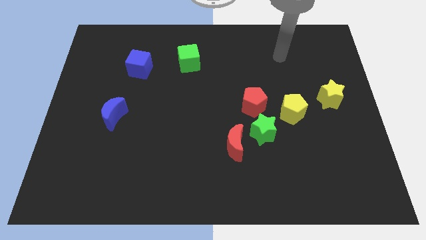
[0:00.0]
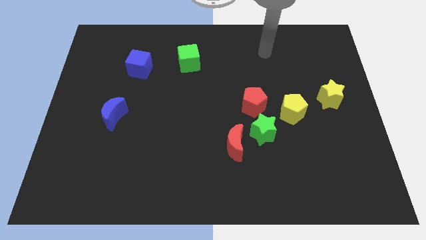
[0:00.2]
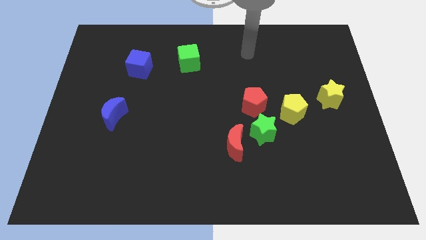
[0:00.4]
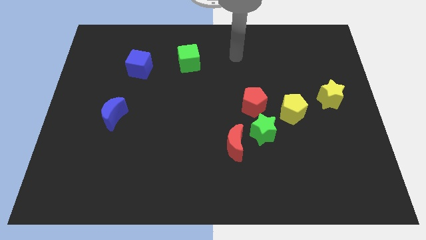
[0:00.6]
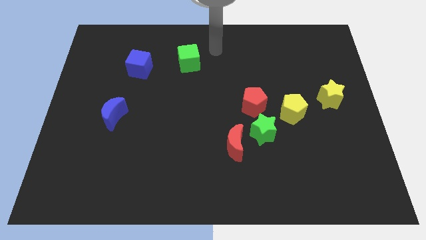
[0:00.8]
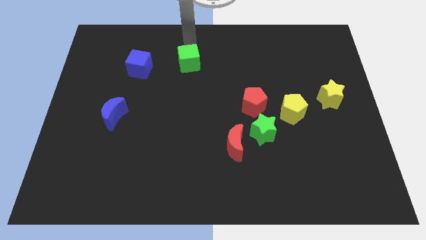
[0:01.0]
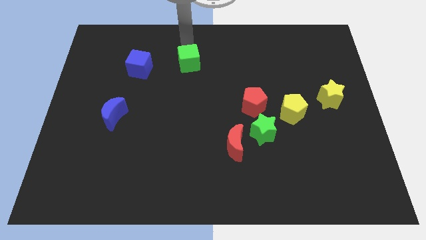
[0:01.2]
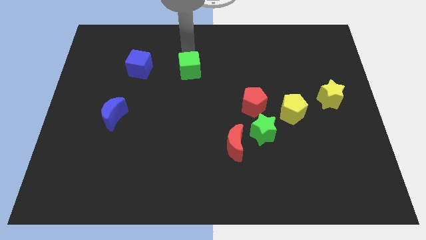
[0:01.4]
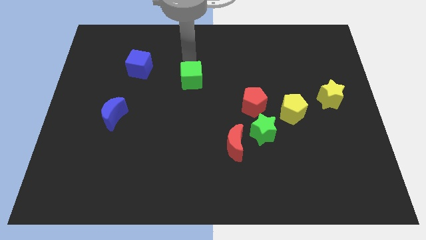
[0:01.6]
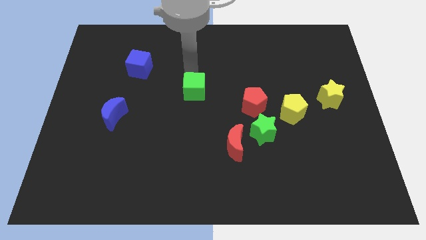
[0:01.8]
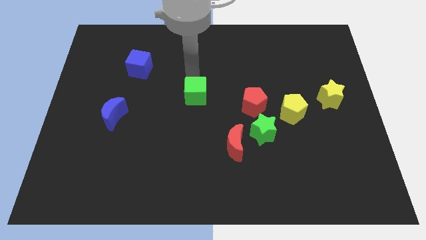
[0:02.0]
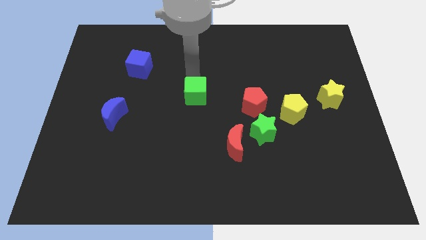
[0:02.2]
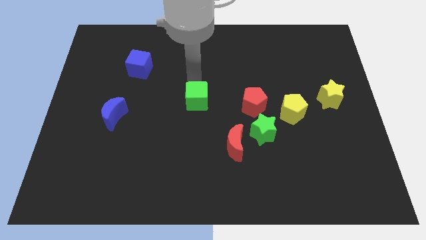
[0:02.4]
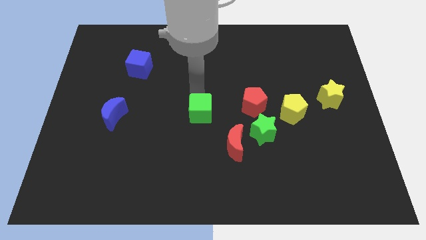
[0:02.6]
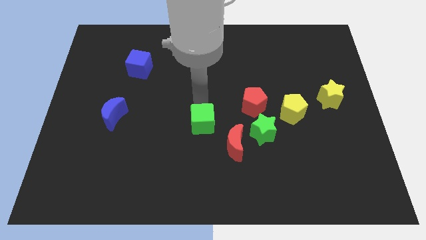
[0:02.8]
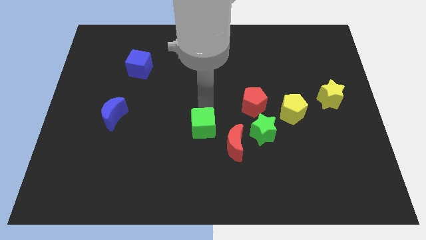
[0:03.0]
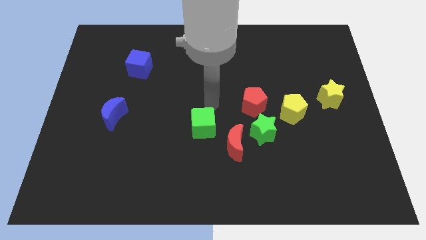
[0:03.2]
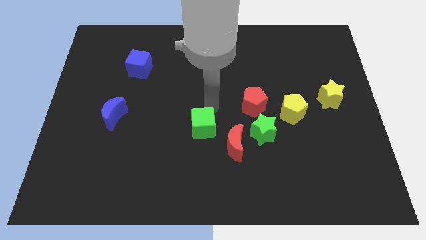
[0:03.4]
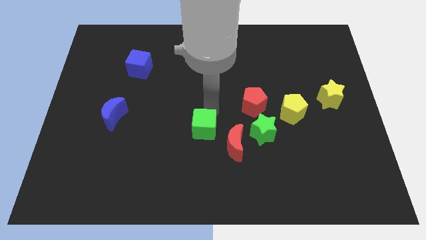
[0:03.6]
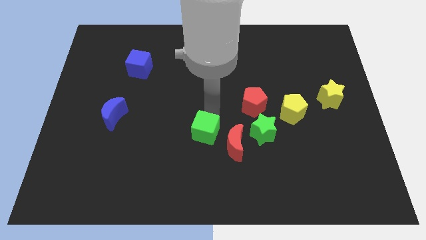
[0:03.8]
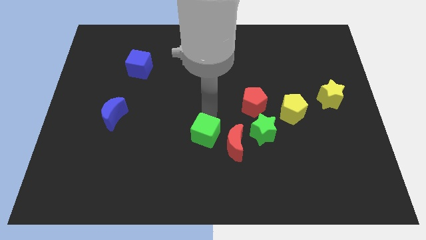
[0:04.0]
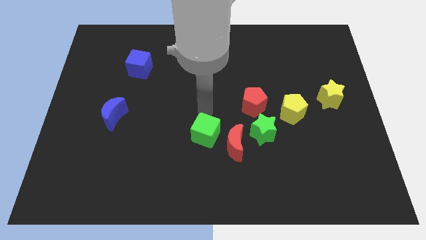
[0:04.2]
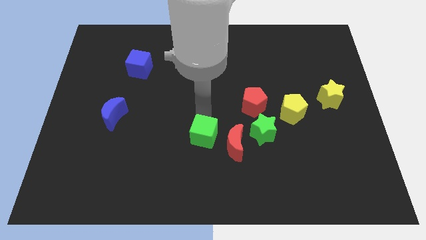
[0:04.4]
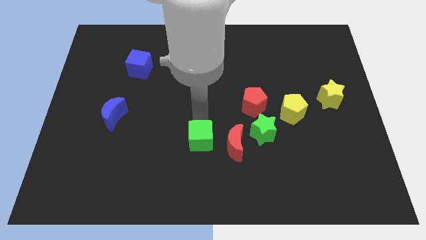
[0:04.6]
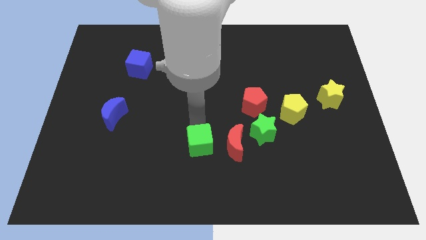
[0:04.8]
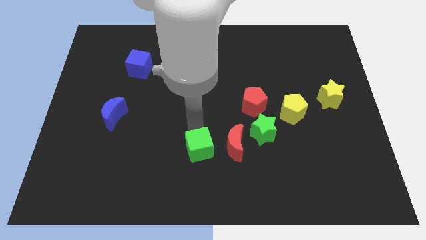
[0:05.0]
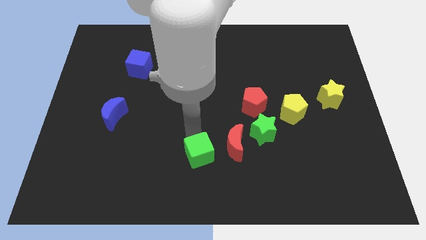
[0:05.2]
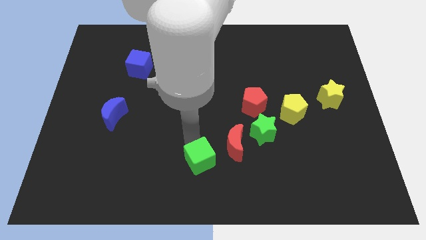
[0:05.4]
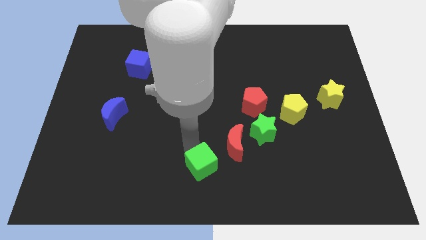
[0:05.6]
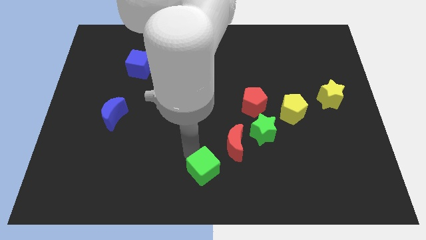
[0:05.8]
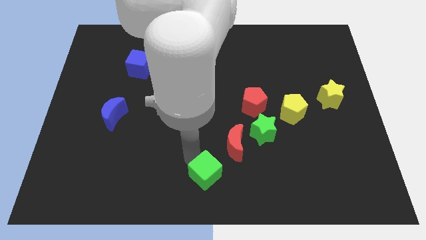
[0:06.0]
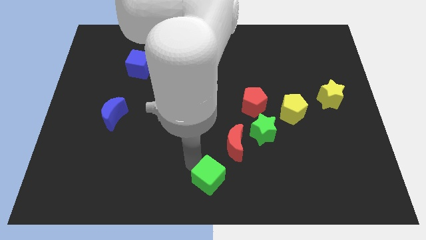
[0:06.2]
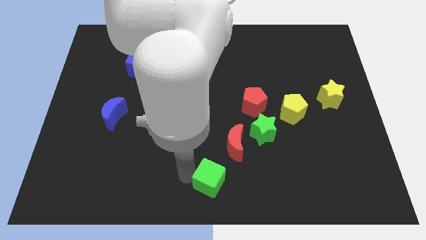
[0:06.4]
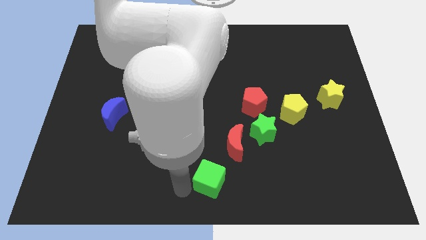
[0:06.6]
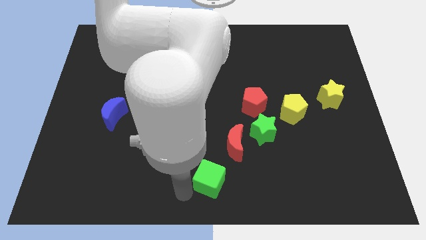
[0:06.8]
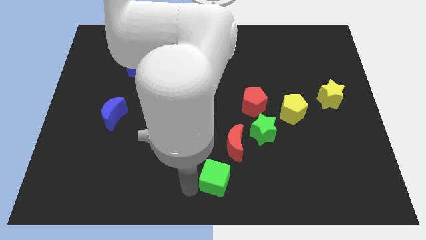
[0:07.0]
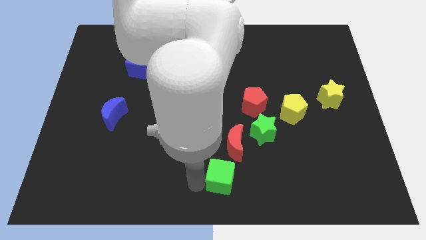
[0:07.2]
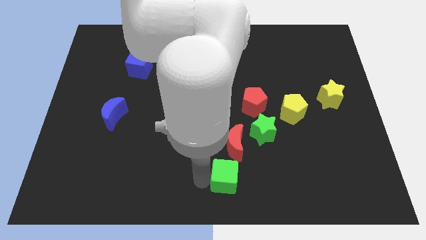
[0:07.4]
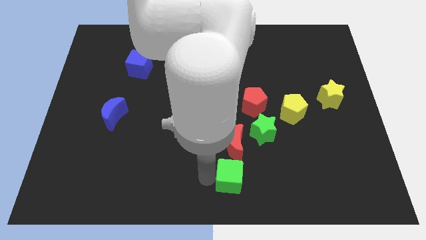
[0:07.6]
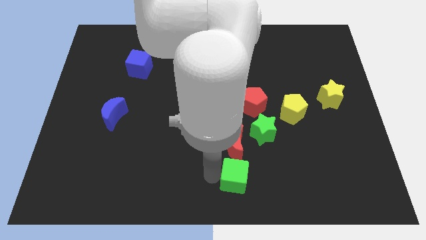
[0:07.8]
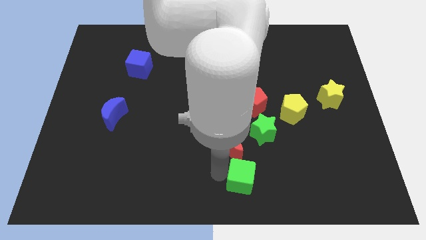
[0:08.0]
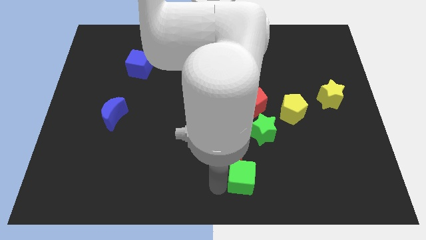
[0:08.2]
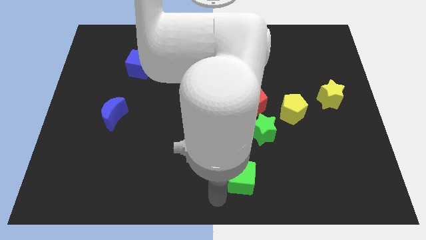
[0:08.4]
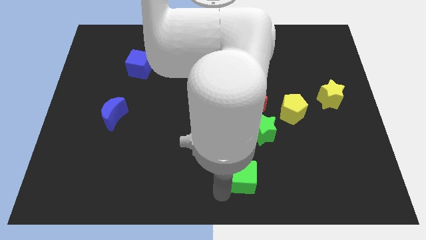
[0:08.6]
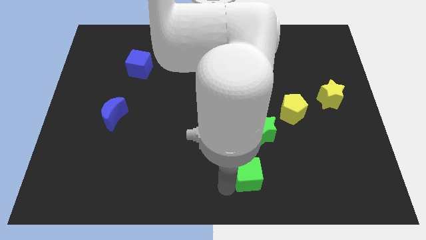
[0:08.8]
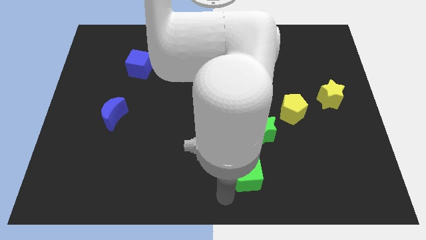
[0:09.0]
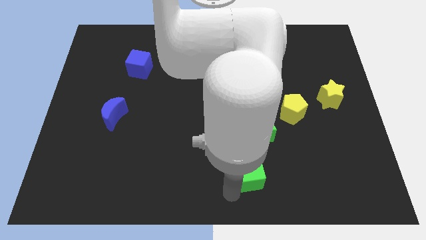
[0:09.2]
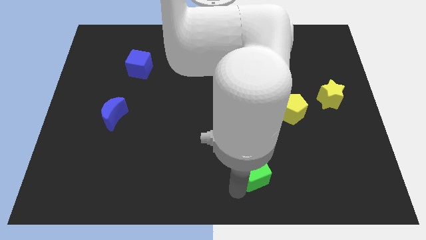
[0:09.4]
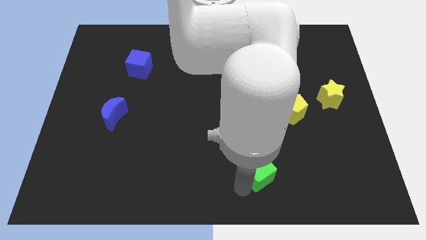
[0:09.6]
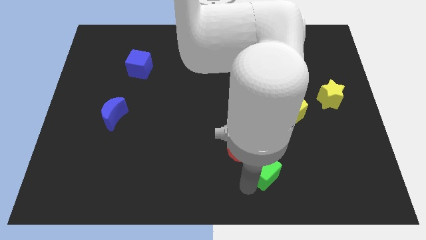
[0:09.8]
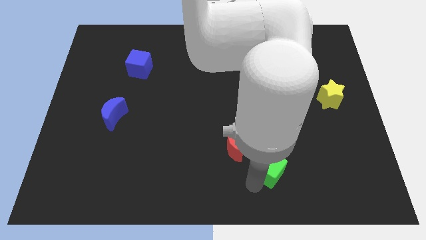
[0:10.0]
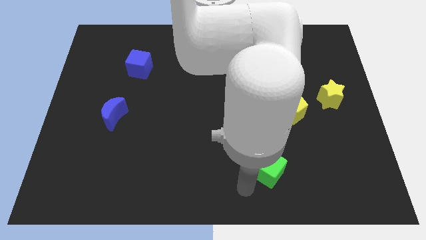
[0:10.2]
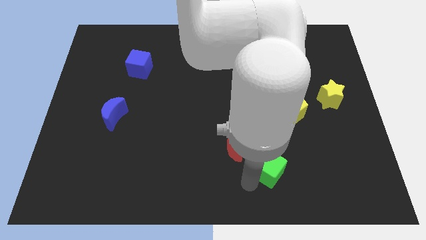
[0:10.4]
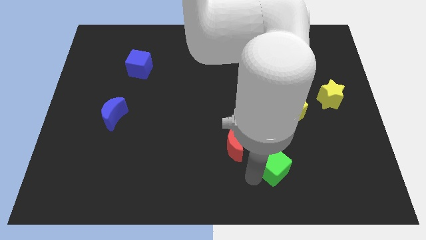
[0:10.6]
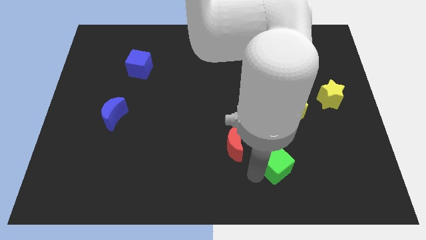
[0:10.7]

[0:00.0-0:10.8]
put the green cube diagonally down and to the right of the green star
